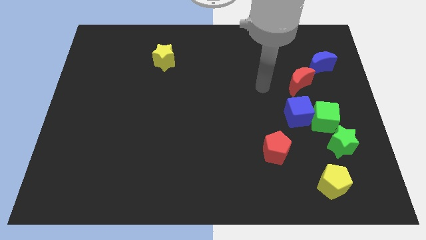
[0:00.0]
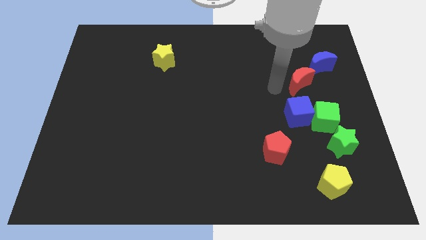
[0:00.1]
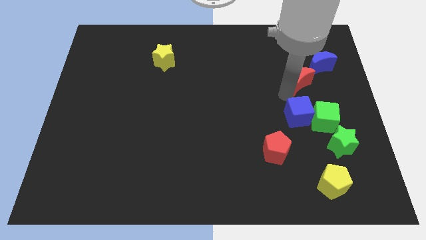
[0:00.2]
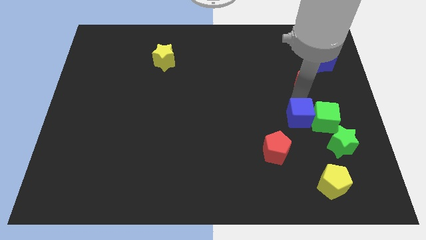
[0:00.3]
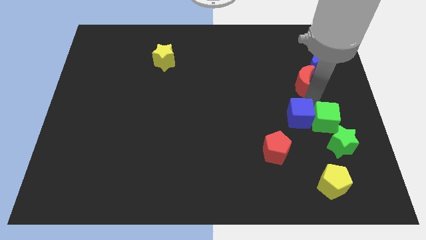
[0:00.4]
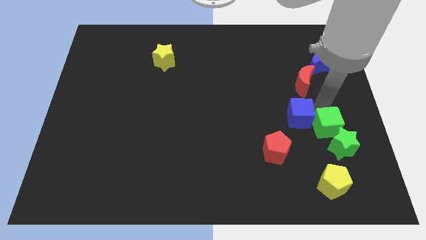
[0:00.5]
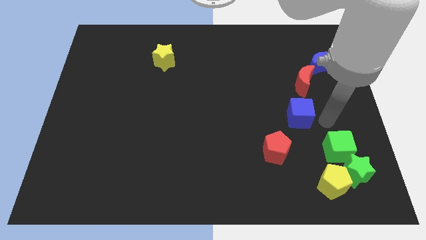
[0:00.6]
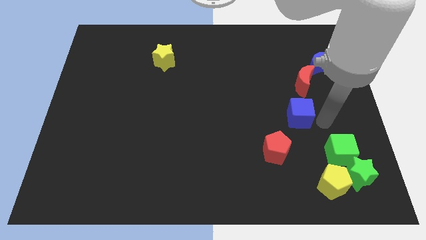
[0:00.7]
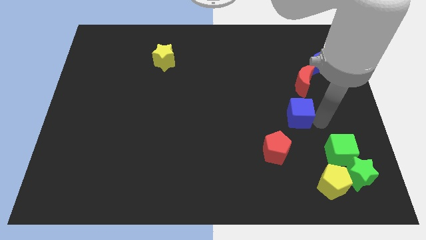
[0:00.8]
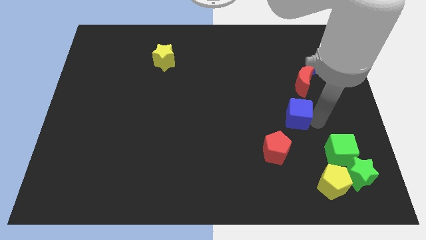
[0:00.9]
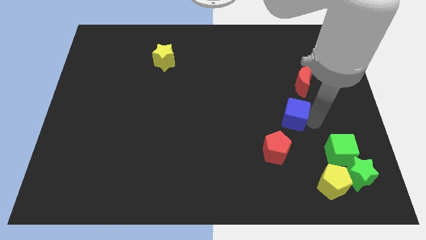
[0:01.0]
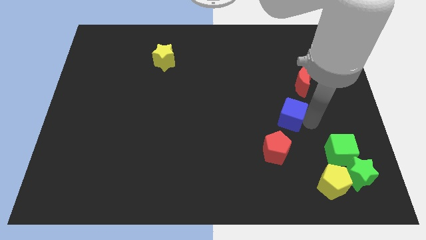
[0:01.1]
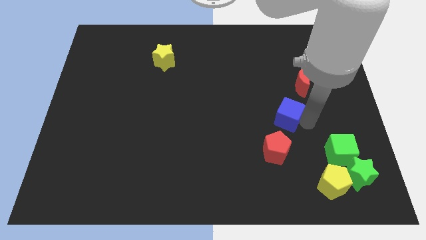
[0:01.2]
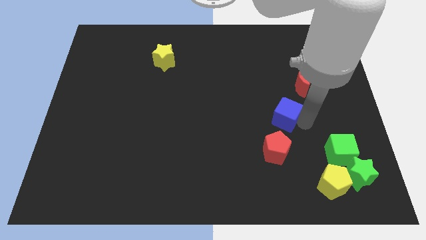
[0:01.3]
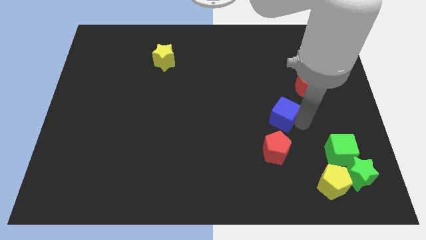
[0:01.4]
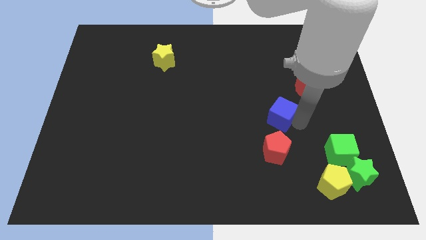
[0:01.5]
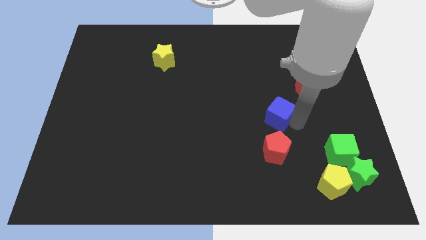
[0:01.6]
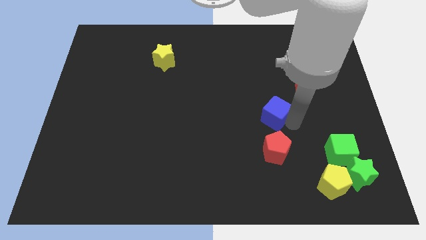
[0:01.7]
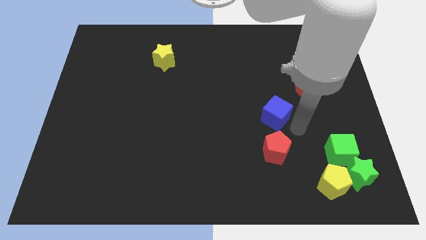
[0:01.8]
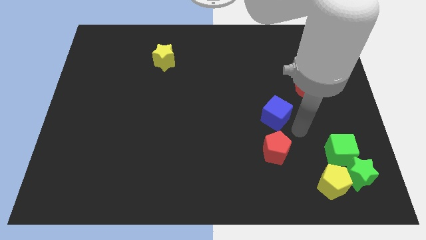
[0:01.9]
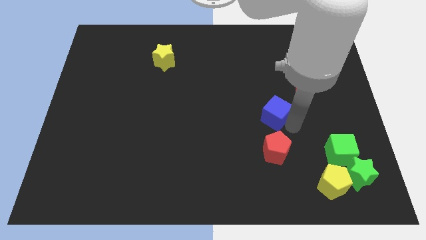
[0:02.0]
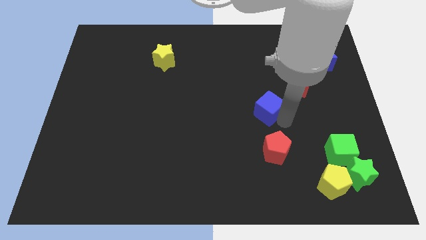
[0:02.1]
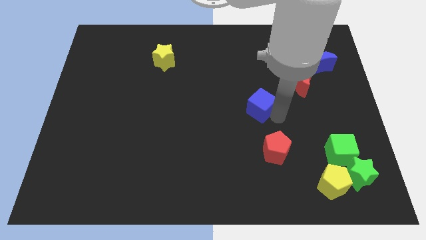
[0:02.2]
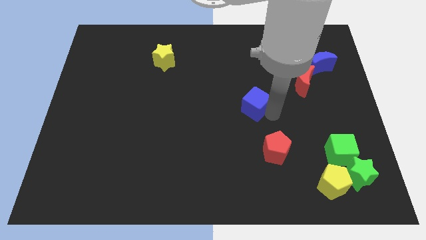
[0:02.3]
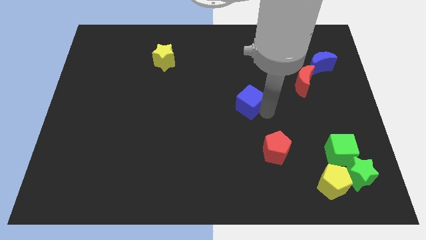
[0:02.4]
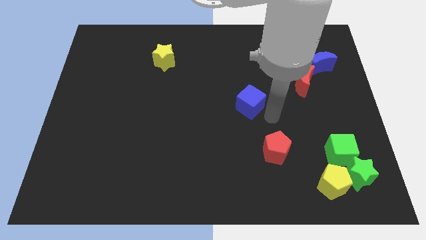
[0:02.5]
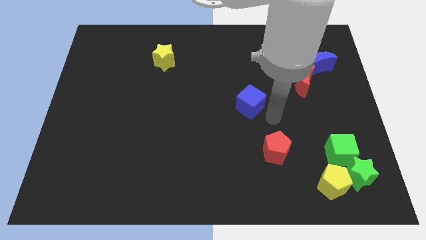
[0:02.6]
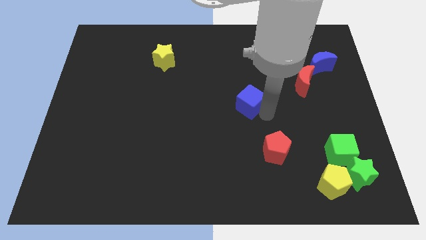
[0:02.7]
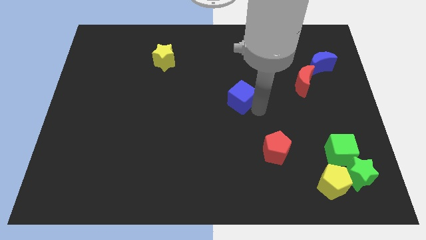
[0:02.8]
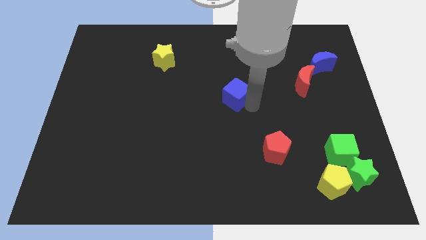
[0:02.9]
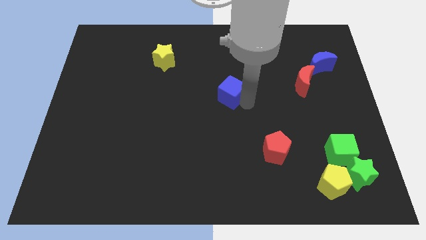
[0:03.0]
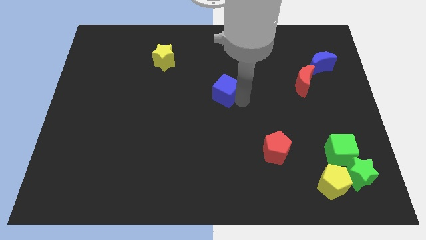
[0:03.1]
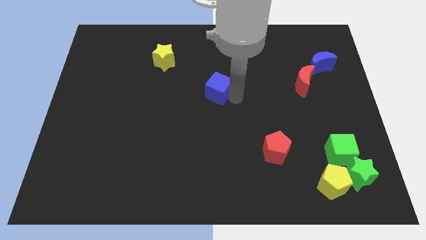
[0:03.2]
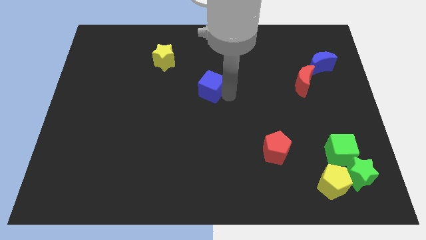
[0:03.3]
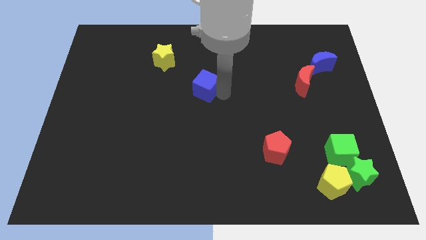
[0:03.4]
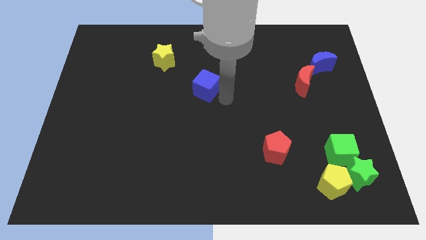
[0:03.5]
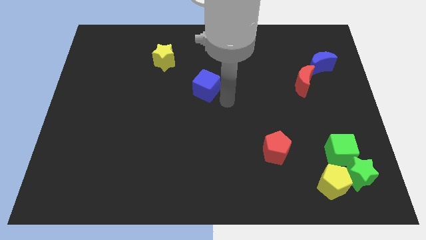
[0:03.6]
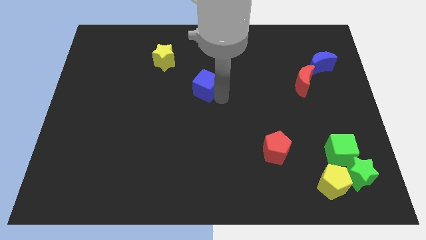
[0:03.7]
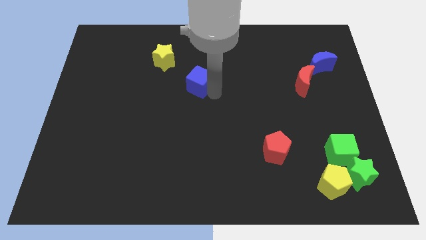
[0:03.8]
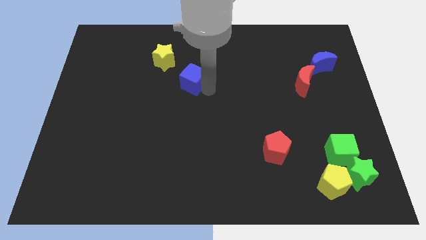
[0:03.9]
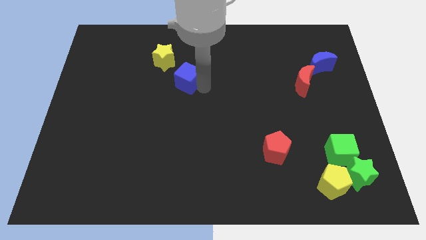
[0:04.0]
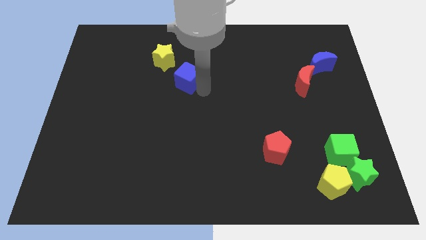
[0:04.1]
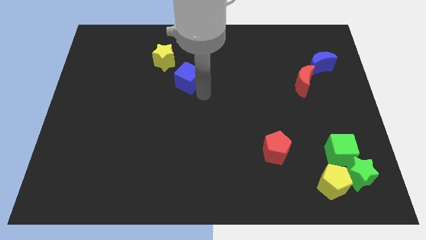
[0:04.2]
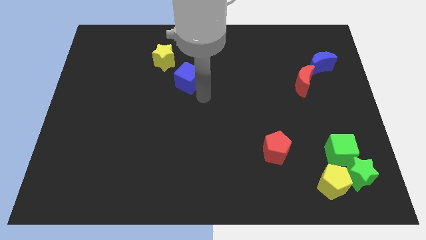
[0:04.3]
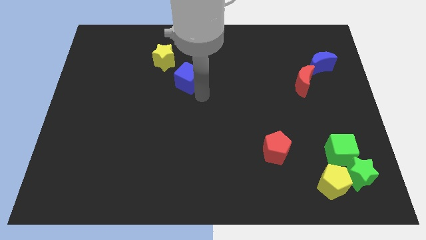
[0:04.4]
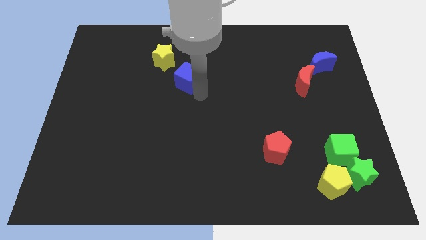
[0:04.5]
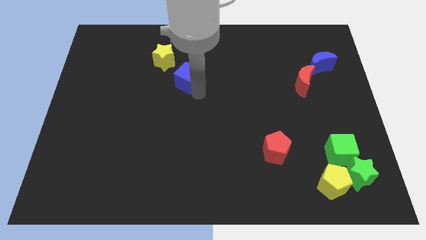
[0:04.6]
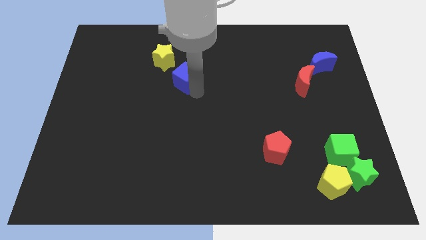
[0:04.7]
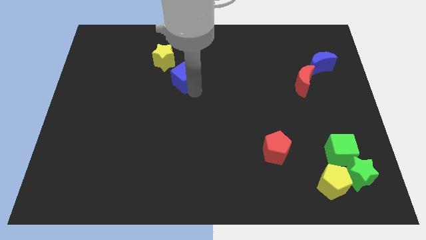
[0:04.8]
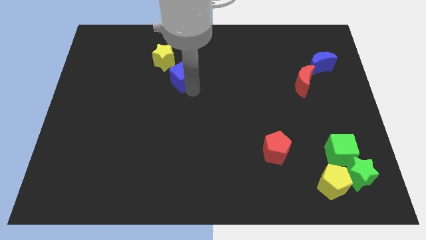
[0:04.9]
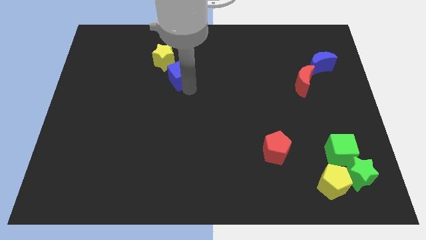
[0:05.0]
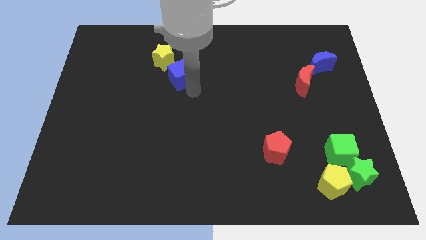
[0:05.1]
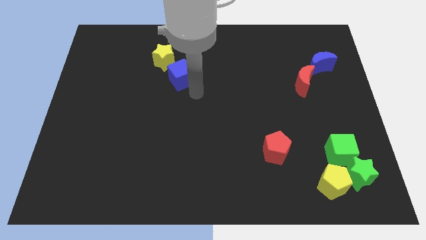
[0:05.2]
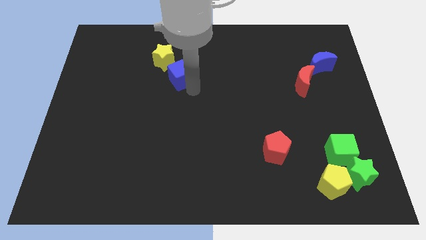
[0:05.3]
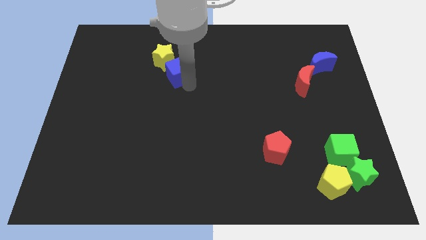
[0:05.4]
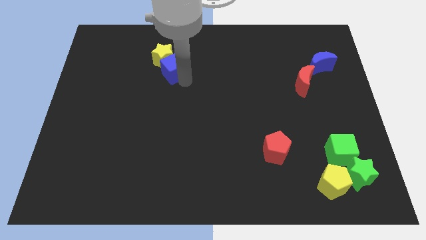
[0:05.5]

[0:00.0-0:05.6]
move the blue cube close to the yellow star

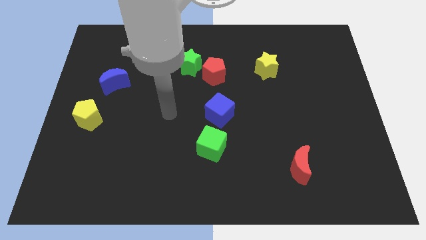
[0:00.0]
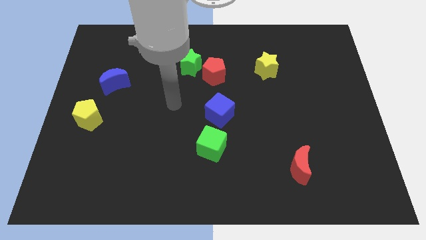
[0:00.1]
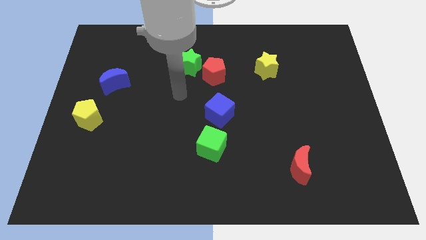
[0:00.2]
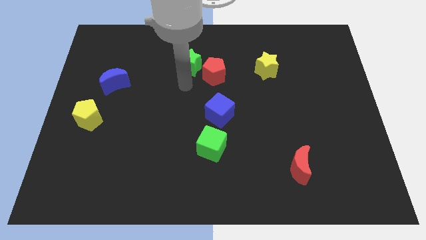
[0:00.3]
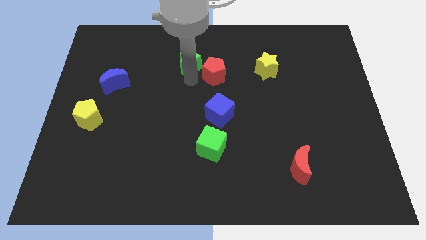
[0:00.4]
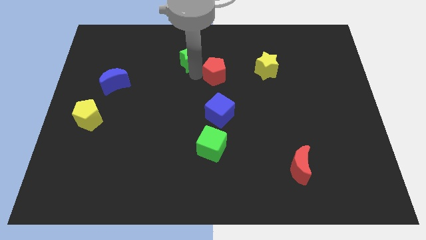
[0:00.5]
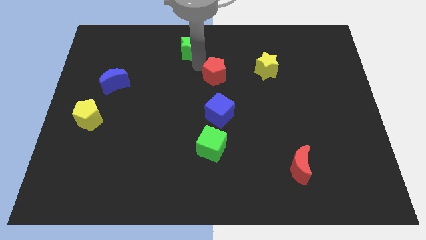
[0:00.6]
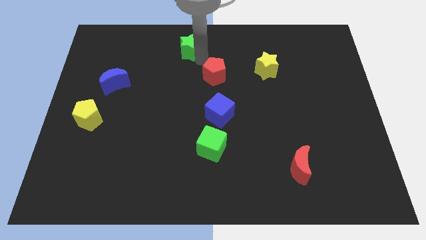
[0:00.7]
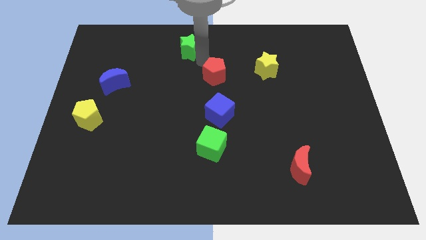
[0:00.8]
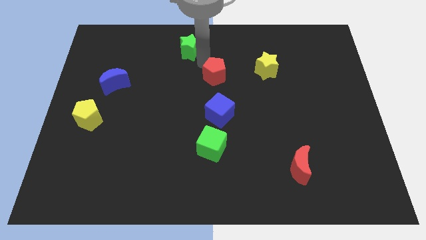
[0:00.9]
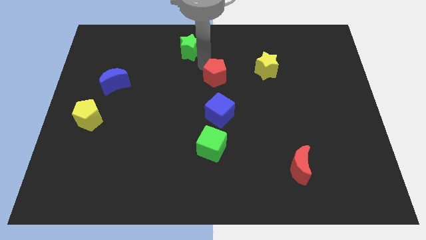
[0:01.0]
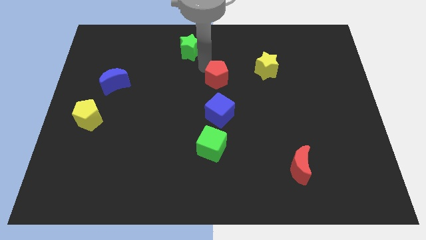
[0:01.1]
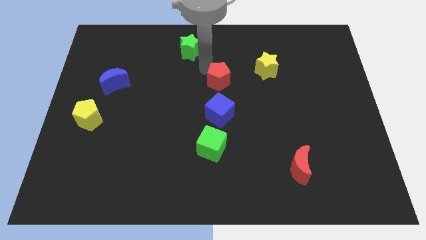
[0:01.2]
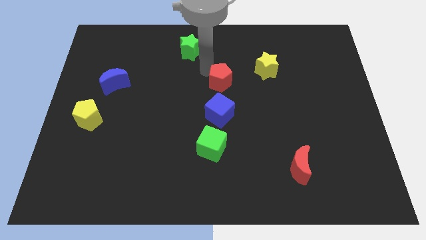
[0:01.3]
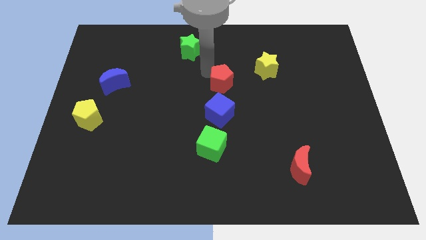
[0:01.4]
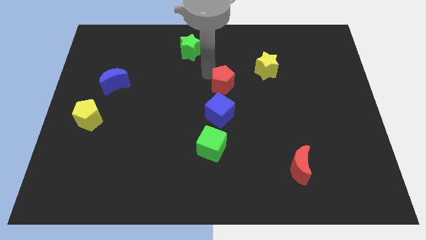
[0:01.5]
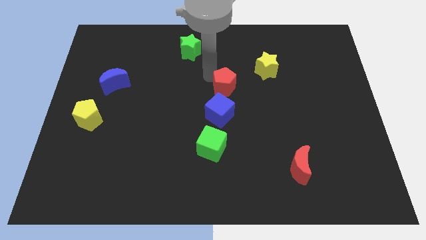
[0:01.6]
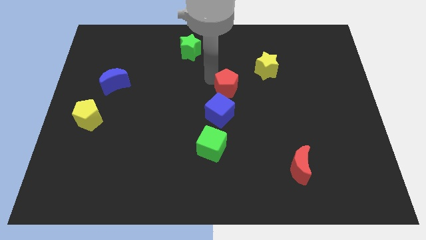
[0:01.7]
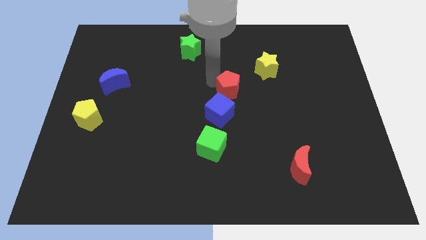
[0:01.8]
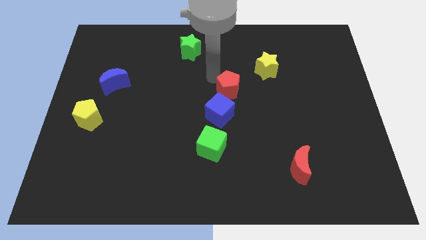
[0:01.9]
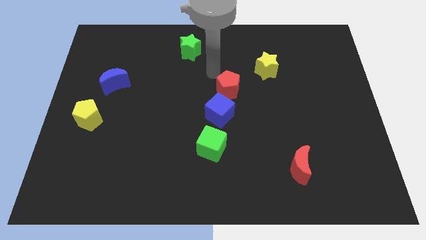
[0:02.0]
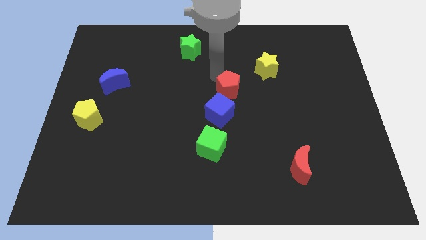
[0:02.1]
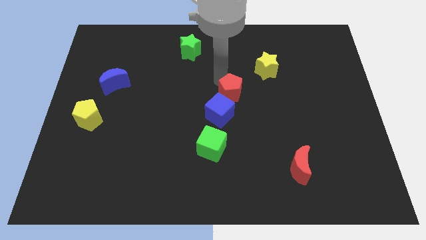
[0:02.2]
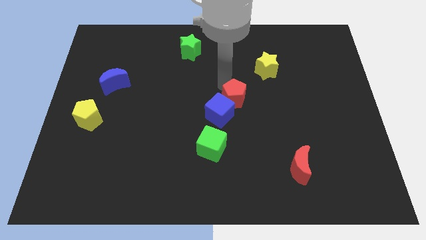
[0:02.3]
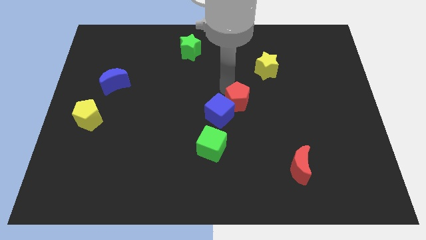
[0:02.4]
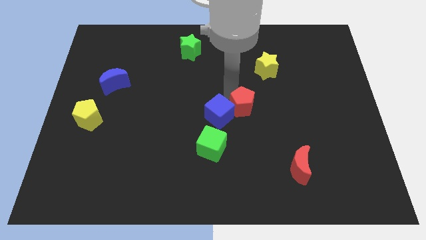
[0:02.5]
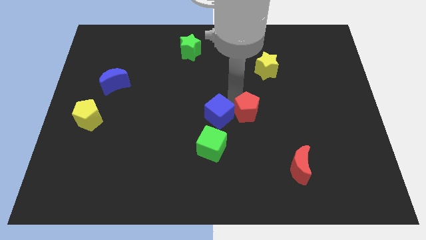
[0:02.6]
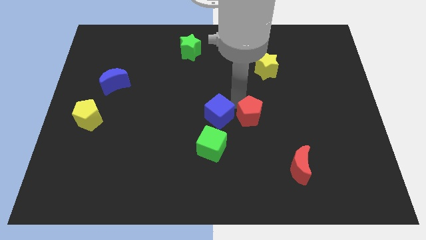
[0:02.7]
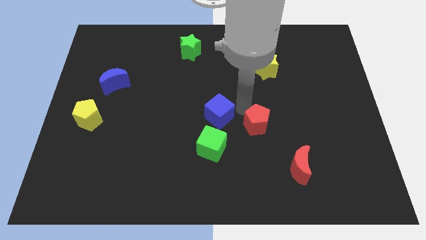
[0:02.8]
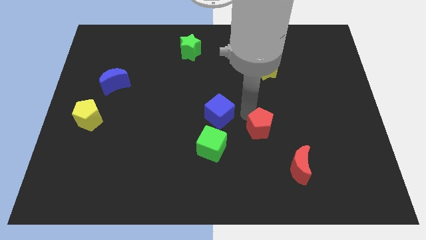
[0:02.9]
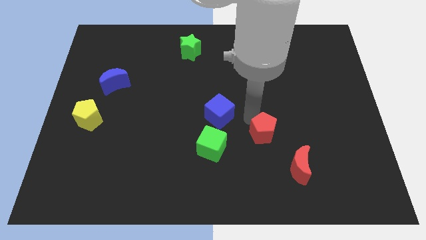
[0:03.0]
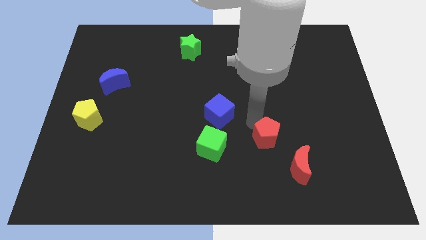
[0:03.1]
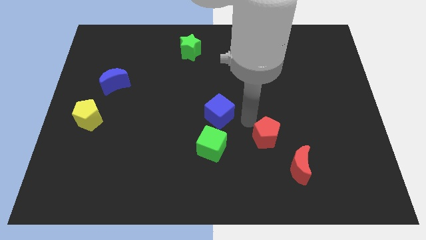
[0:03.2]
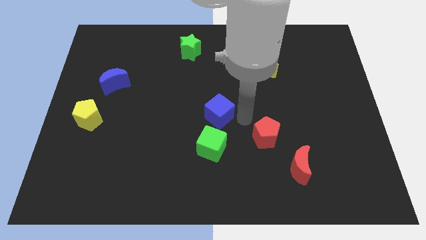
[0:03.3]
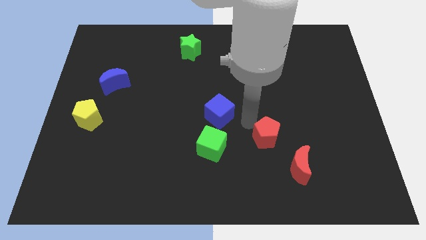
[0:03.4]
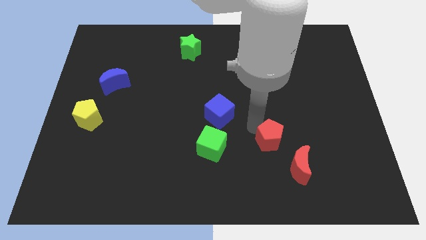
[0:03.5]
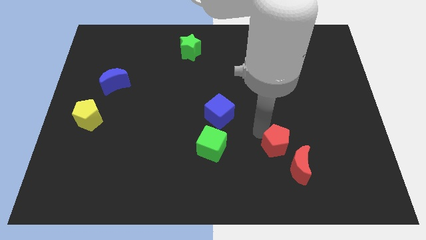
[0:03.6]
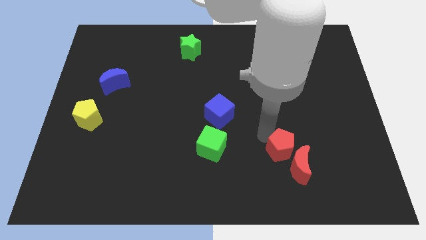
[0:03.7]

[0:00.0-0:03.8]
slide the red pentagon towards the red moon
